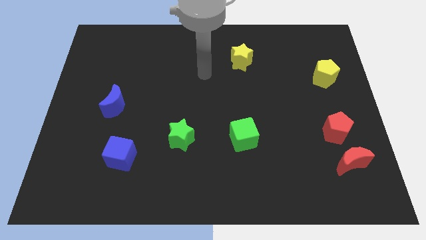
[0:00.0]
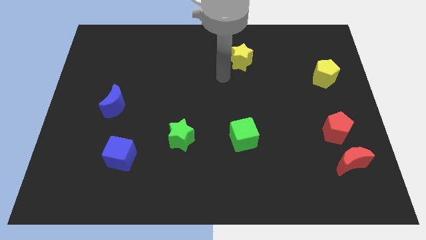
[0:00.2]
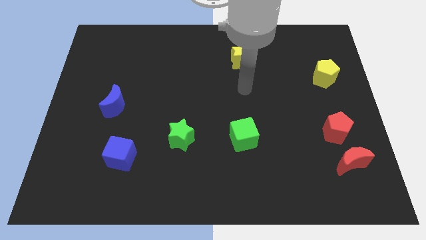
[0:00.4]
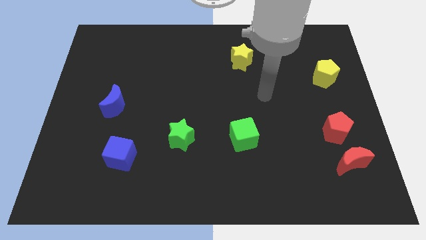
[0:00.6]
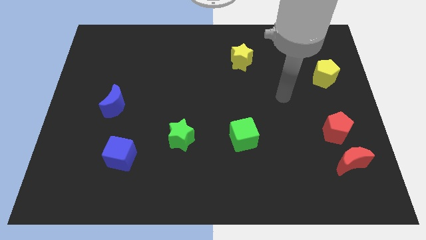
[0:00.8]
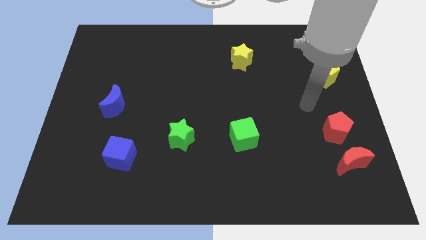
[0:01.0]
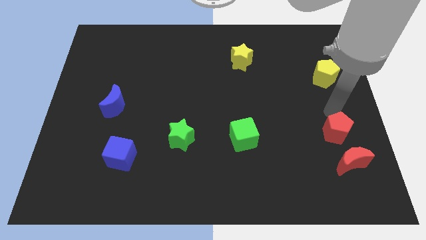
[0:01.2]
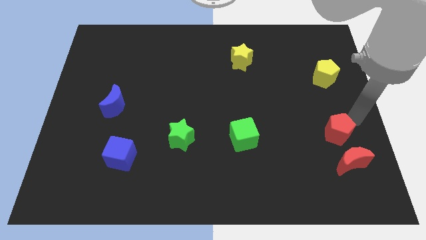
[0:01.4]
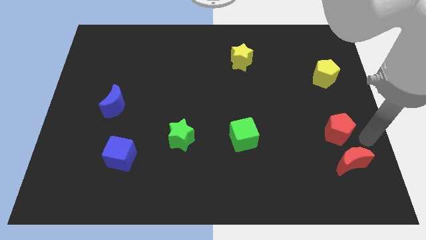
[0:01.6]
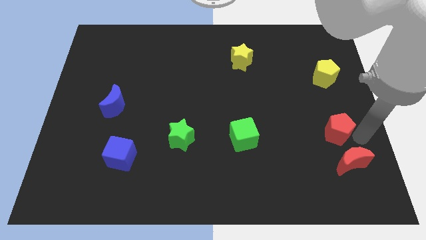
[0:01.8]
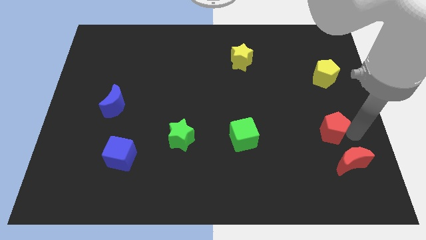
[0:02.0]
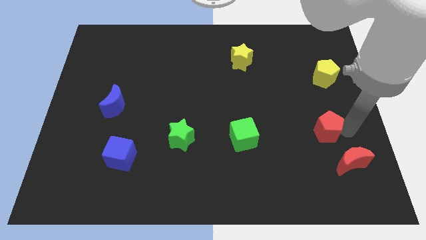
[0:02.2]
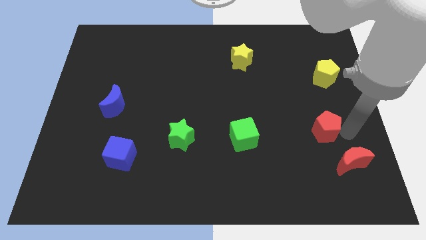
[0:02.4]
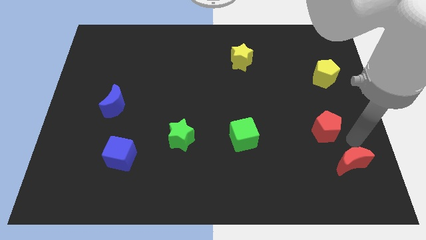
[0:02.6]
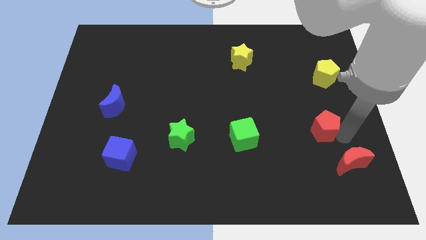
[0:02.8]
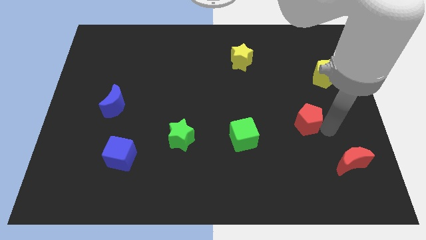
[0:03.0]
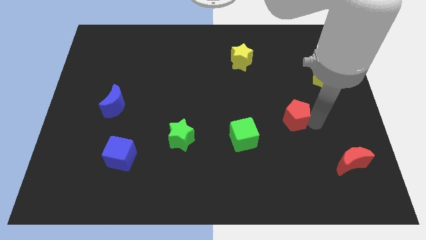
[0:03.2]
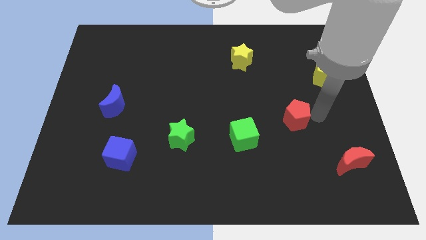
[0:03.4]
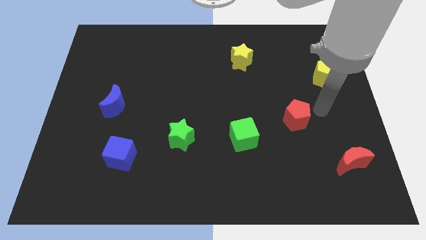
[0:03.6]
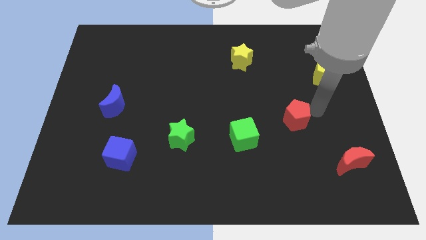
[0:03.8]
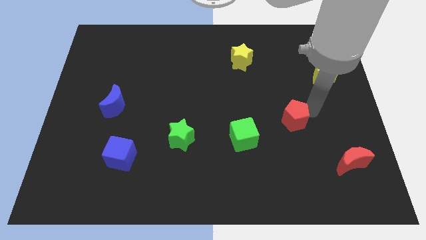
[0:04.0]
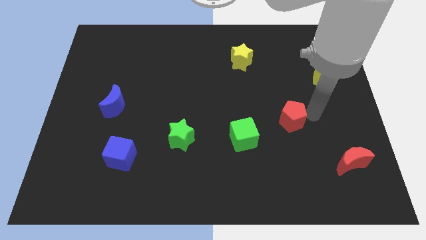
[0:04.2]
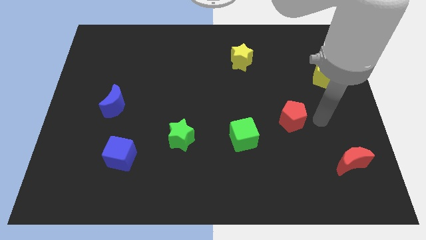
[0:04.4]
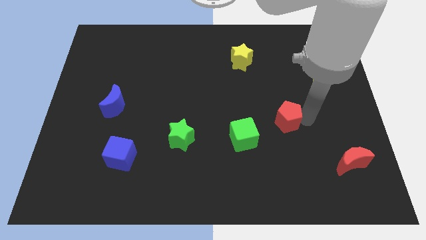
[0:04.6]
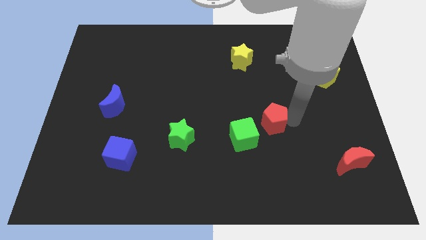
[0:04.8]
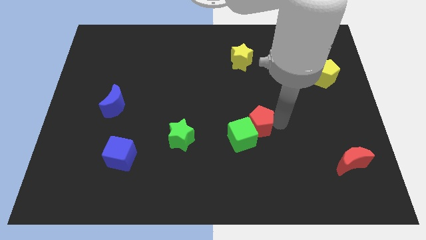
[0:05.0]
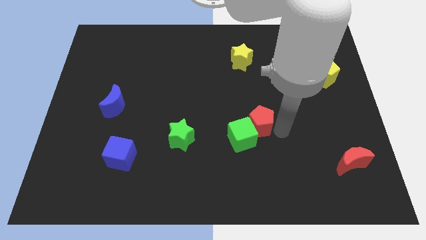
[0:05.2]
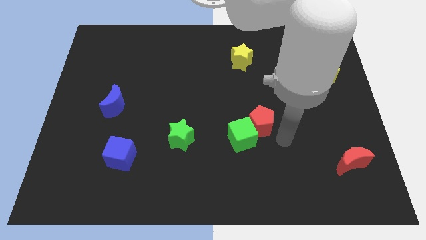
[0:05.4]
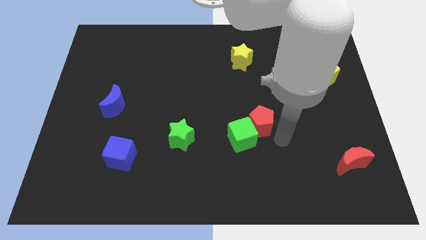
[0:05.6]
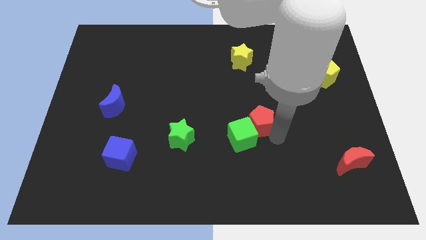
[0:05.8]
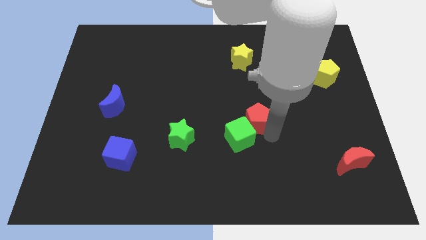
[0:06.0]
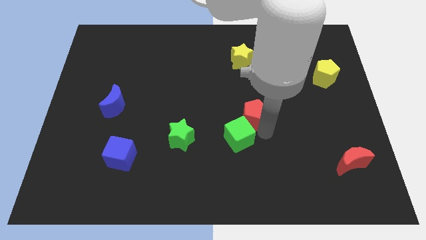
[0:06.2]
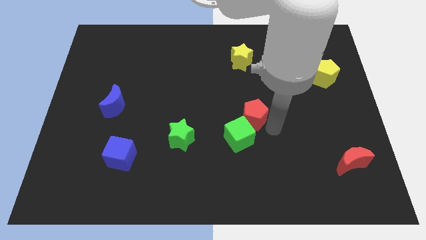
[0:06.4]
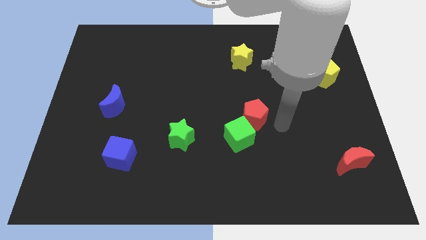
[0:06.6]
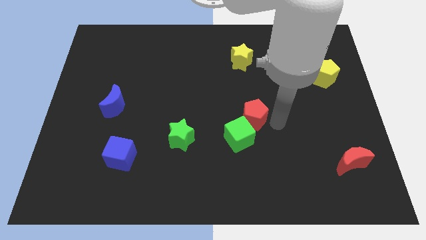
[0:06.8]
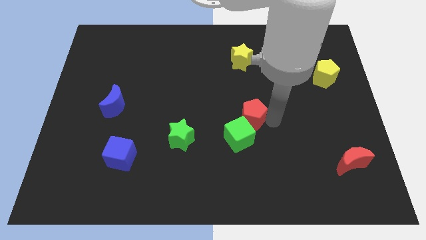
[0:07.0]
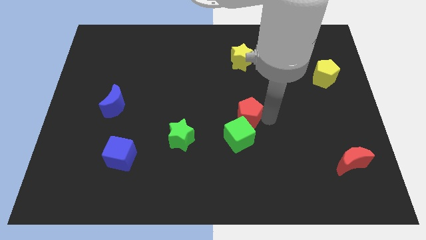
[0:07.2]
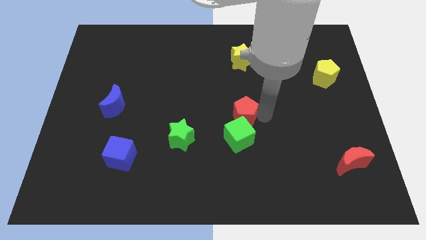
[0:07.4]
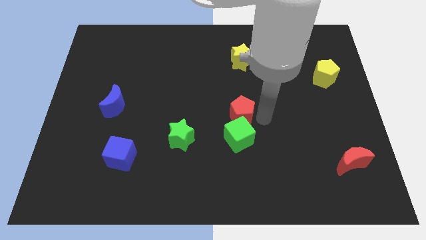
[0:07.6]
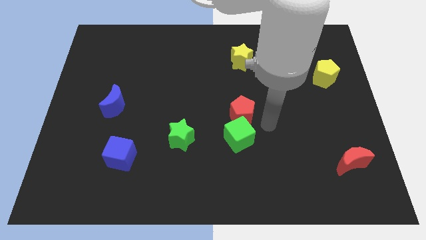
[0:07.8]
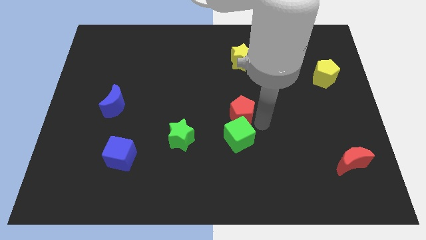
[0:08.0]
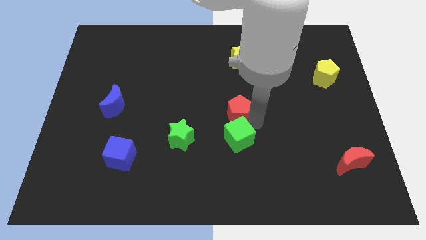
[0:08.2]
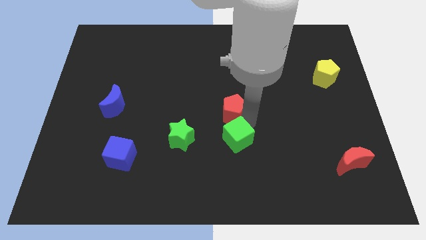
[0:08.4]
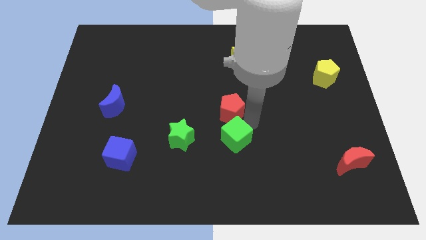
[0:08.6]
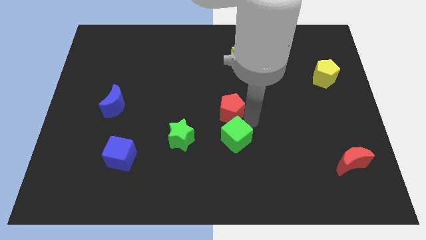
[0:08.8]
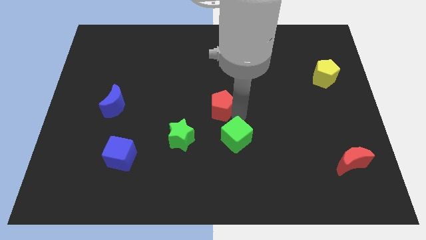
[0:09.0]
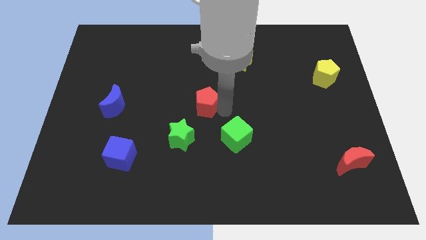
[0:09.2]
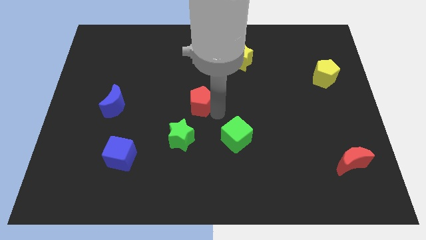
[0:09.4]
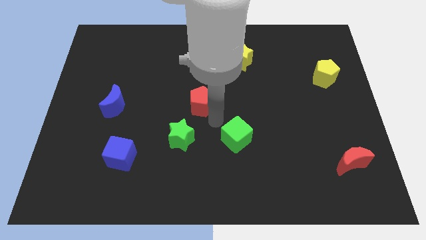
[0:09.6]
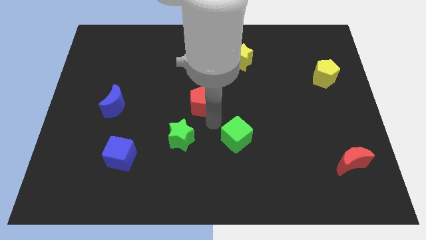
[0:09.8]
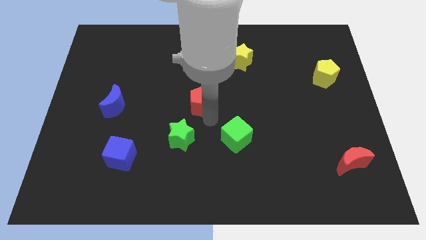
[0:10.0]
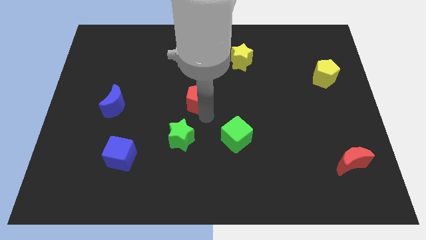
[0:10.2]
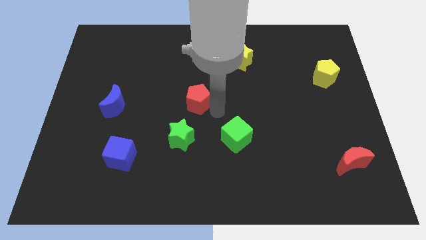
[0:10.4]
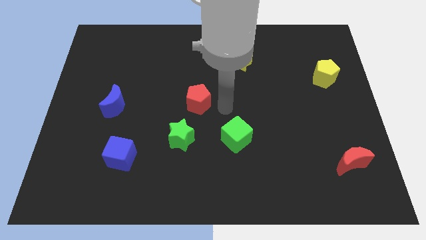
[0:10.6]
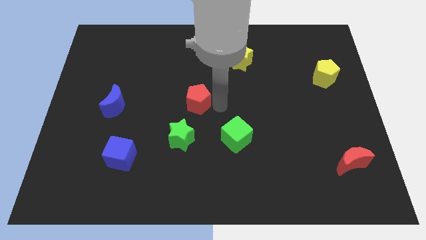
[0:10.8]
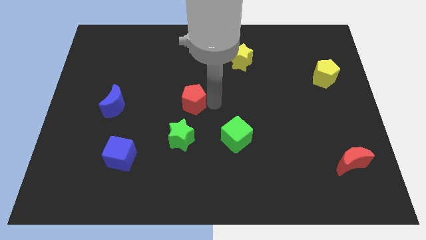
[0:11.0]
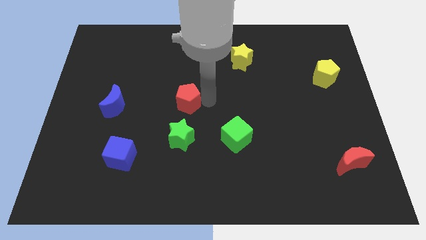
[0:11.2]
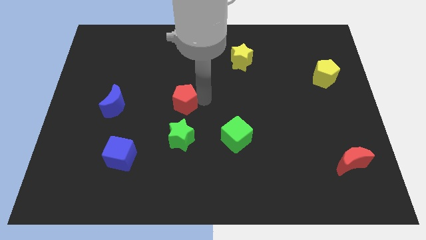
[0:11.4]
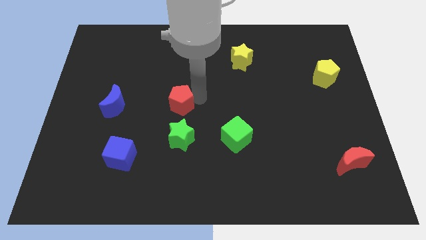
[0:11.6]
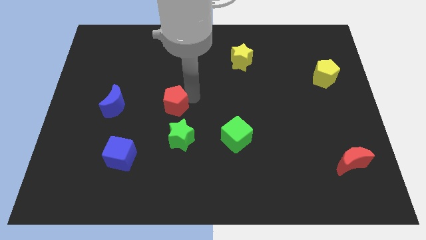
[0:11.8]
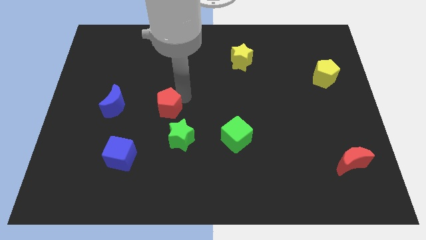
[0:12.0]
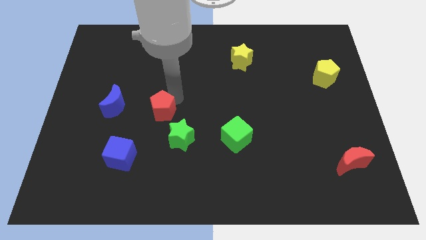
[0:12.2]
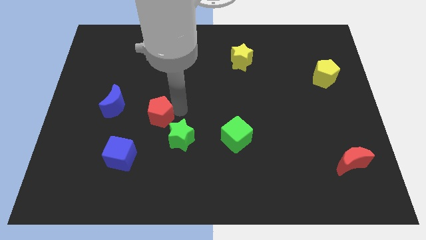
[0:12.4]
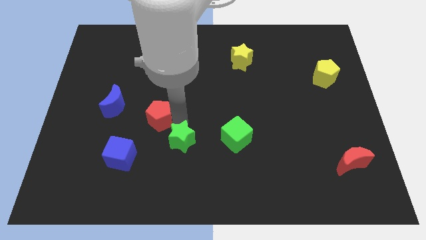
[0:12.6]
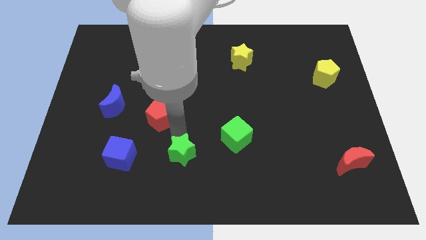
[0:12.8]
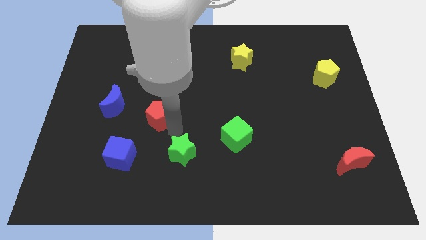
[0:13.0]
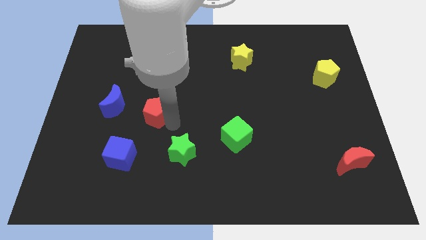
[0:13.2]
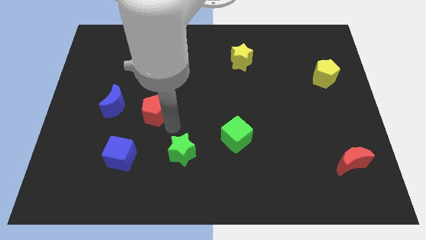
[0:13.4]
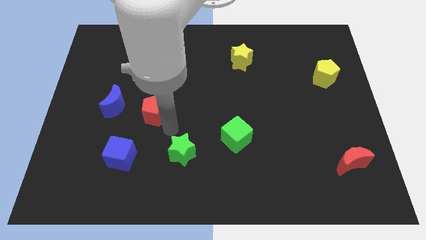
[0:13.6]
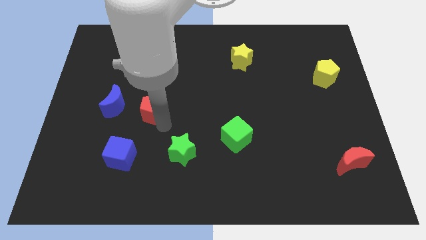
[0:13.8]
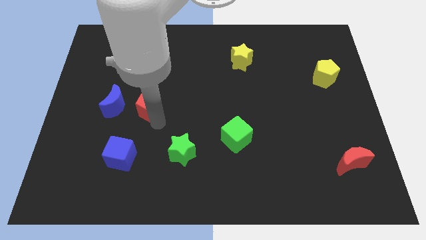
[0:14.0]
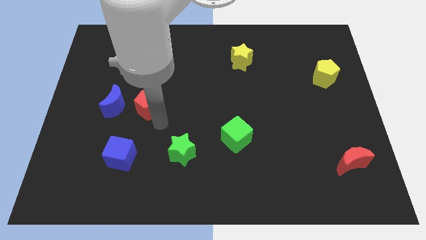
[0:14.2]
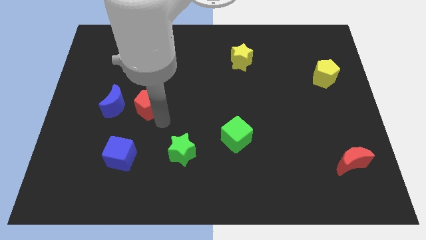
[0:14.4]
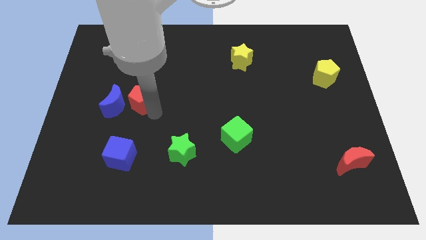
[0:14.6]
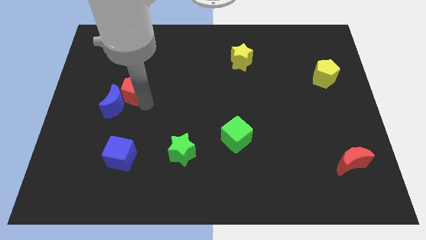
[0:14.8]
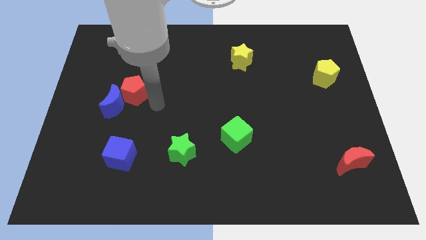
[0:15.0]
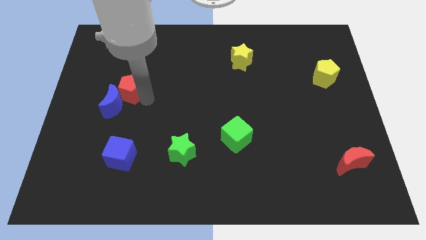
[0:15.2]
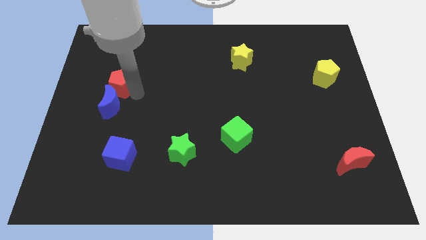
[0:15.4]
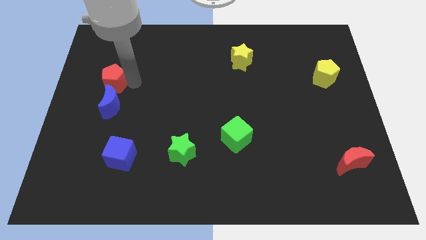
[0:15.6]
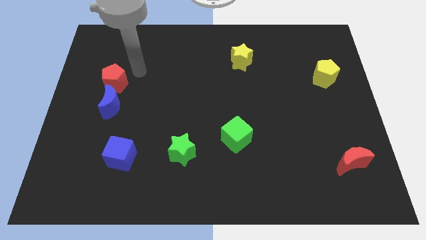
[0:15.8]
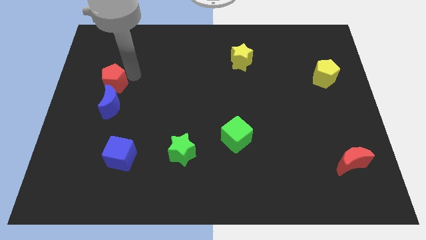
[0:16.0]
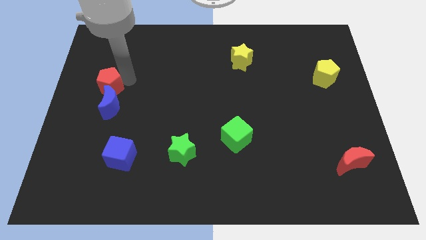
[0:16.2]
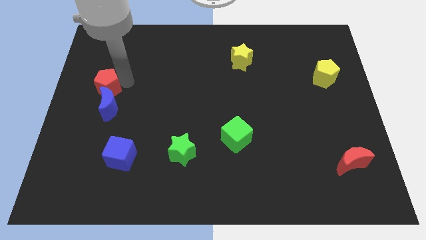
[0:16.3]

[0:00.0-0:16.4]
move the red pentagon to the left side of the board
